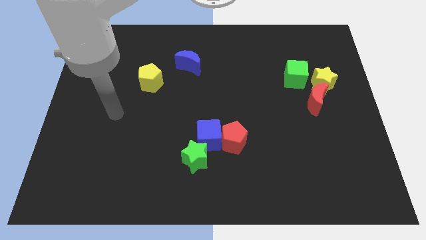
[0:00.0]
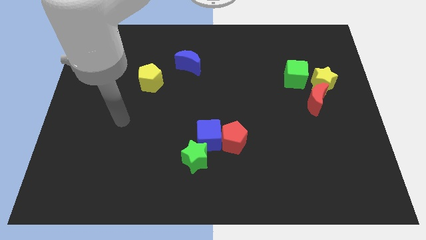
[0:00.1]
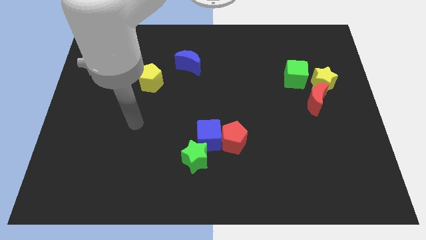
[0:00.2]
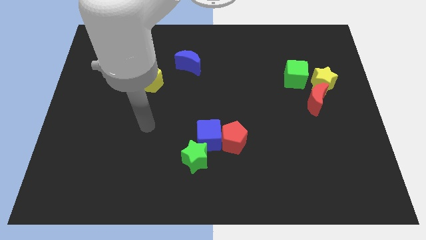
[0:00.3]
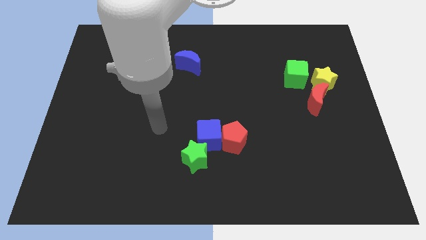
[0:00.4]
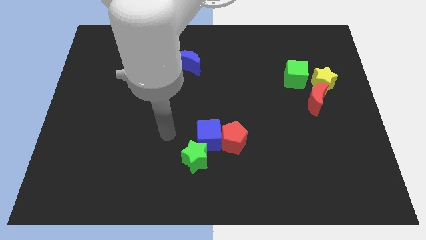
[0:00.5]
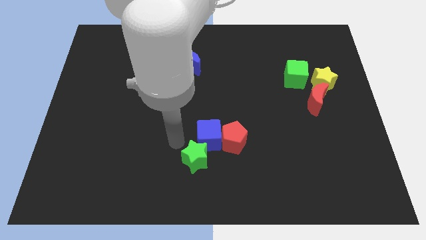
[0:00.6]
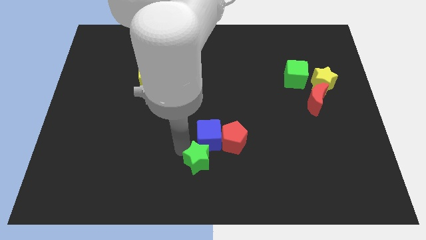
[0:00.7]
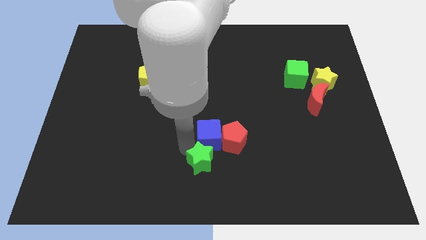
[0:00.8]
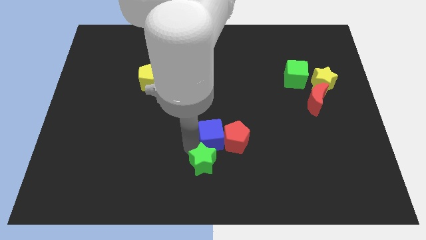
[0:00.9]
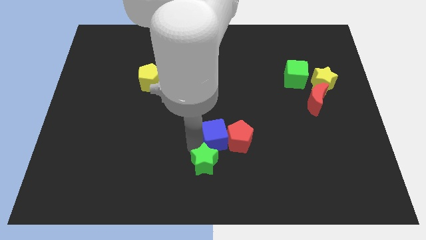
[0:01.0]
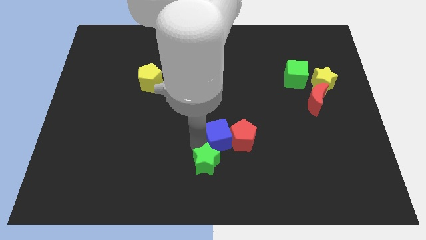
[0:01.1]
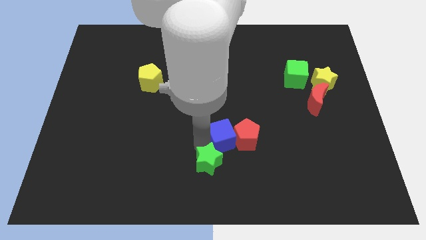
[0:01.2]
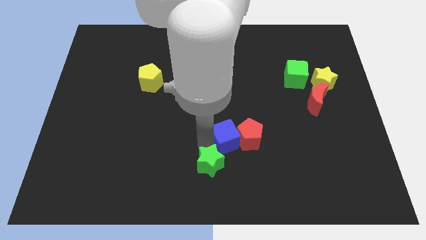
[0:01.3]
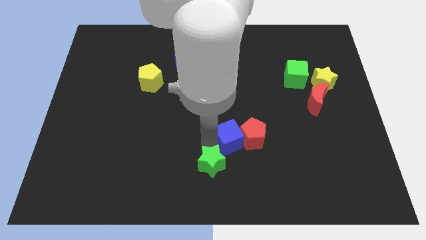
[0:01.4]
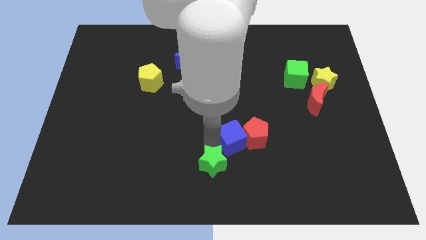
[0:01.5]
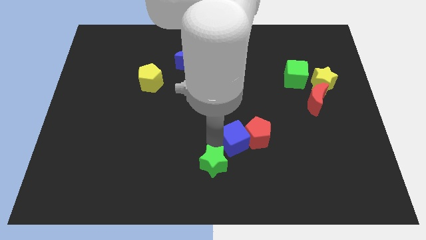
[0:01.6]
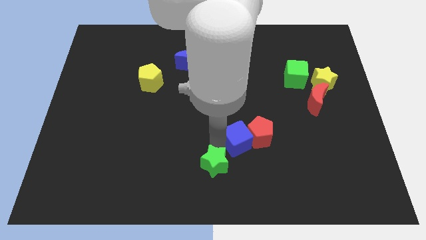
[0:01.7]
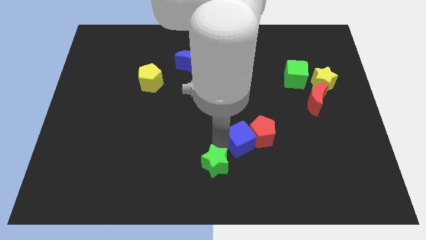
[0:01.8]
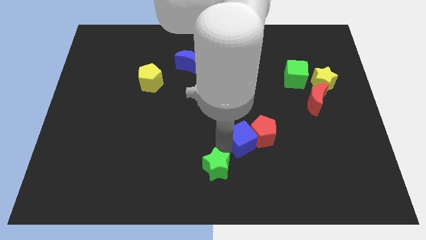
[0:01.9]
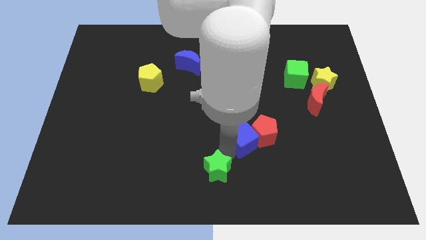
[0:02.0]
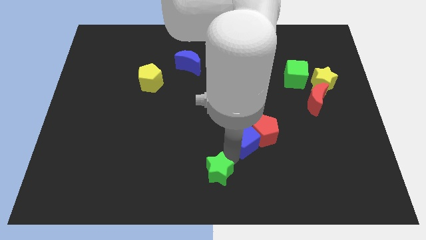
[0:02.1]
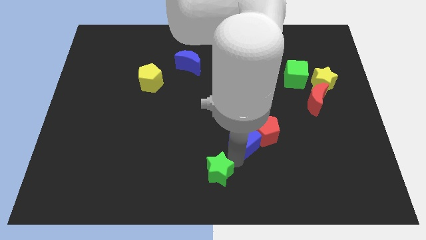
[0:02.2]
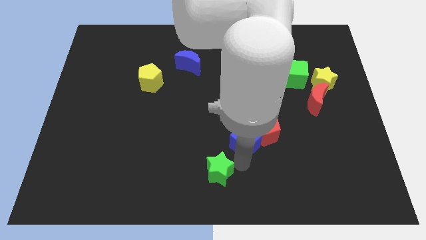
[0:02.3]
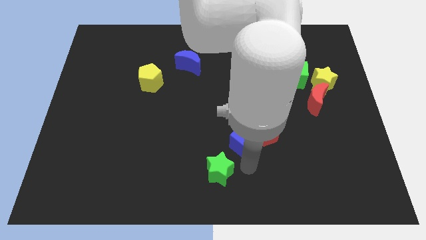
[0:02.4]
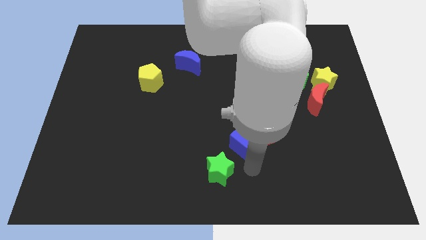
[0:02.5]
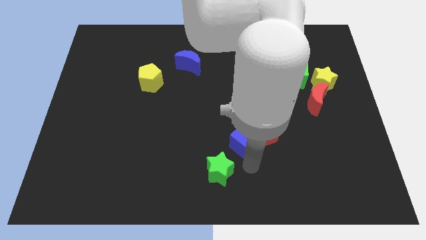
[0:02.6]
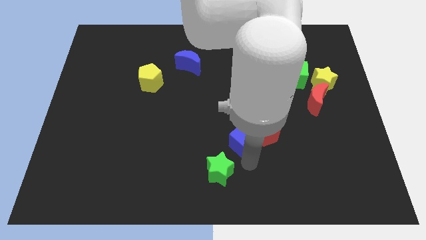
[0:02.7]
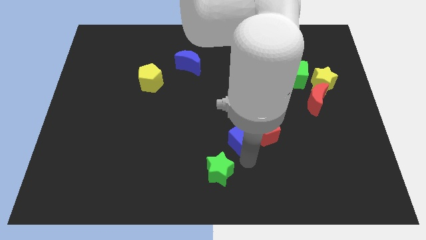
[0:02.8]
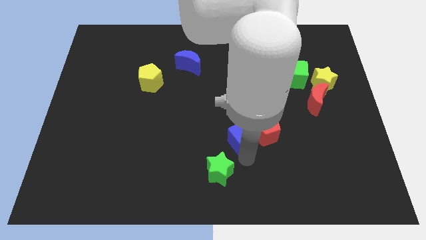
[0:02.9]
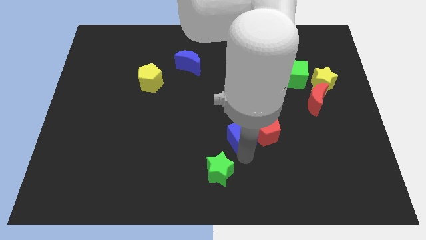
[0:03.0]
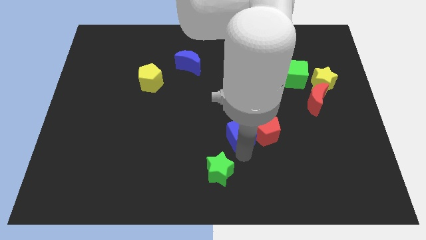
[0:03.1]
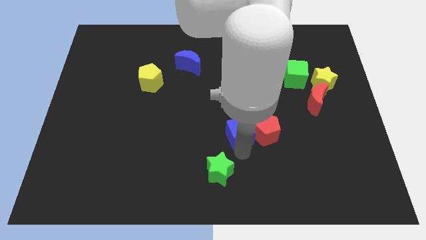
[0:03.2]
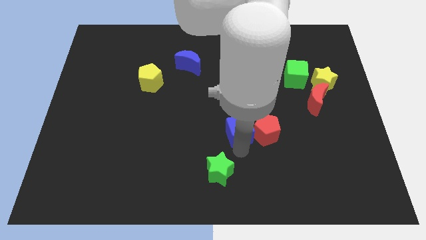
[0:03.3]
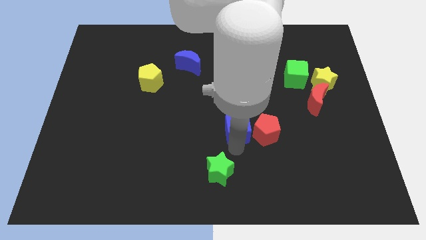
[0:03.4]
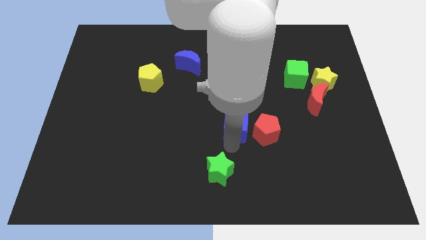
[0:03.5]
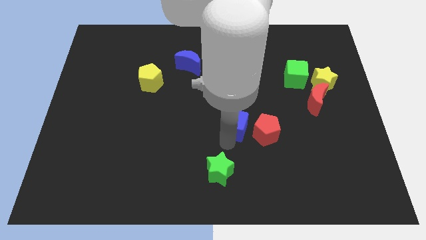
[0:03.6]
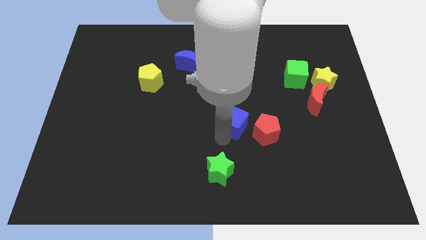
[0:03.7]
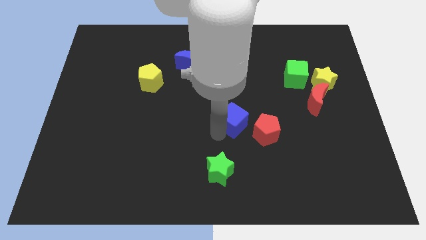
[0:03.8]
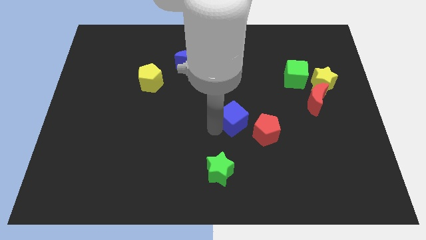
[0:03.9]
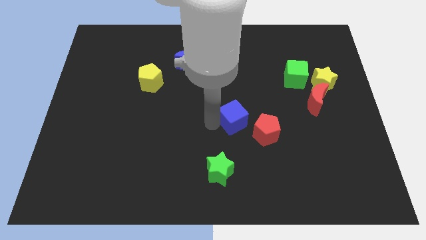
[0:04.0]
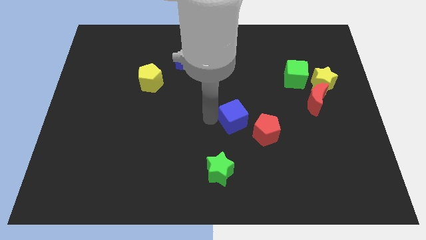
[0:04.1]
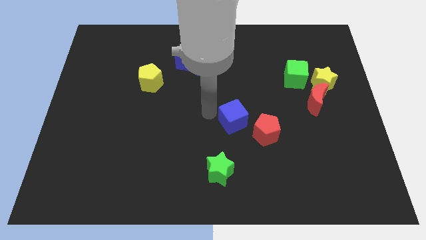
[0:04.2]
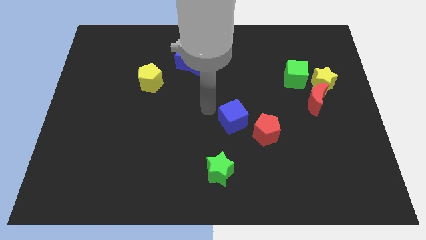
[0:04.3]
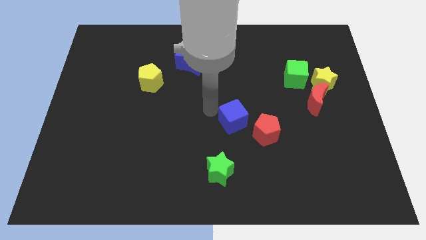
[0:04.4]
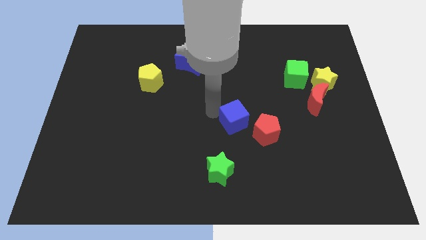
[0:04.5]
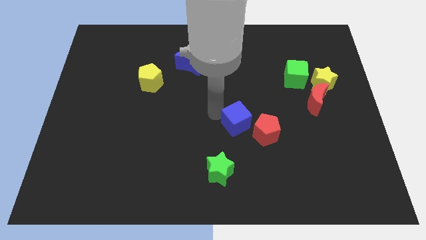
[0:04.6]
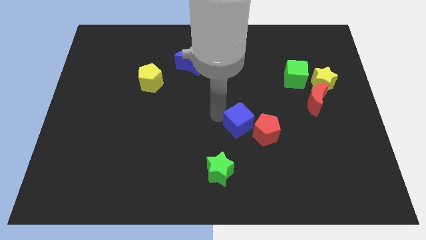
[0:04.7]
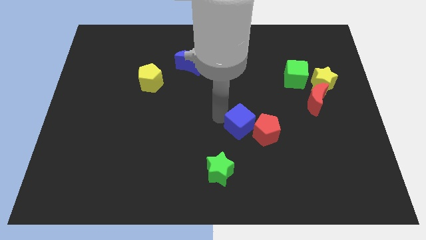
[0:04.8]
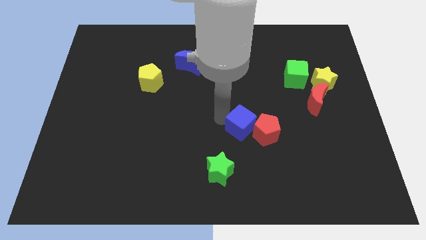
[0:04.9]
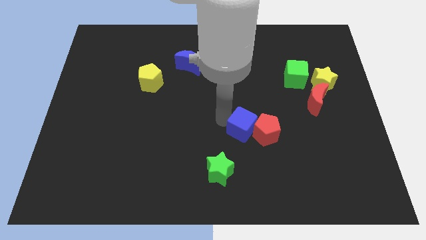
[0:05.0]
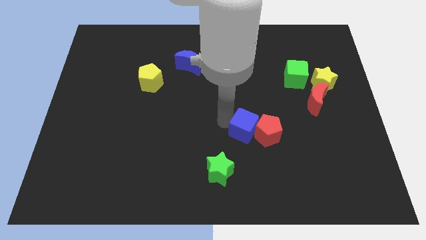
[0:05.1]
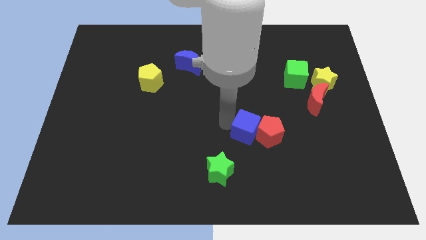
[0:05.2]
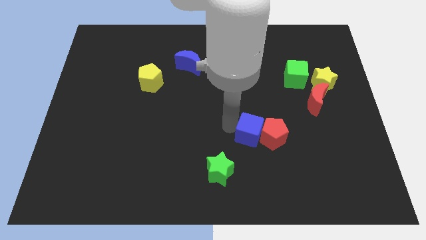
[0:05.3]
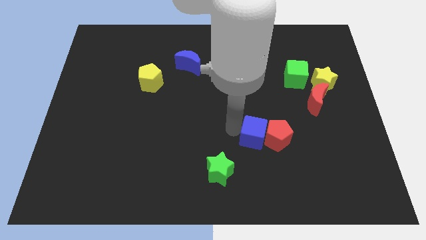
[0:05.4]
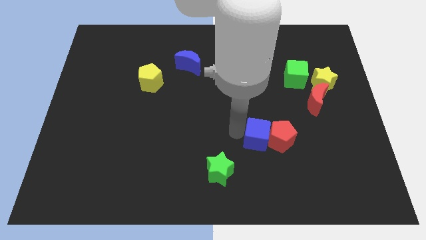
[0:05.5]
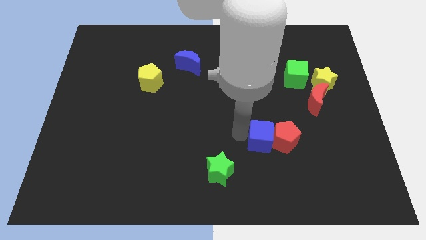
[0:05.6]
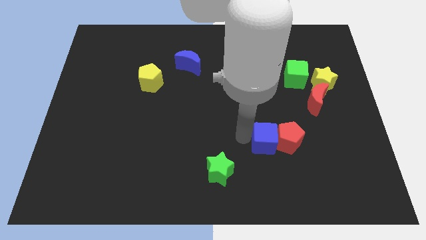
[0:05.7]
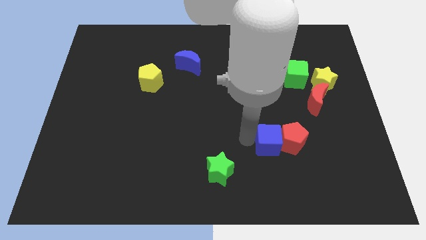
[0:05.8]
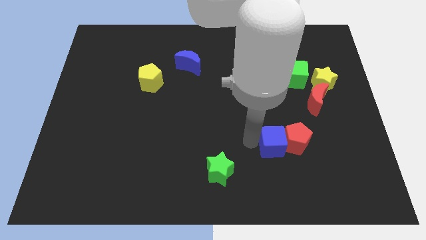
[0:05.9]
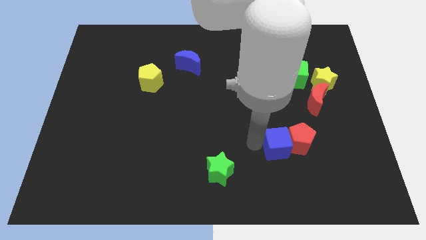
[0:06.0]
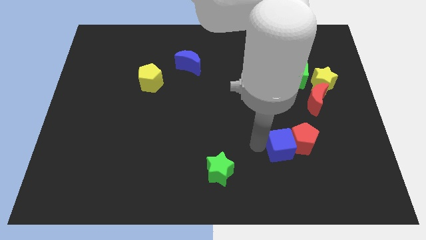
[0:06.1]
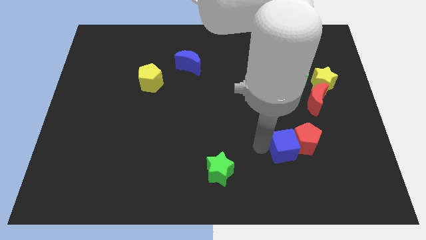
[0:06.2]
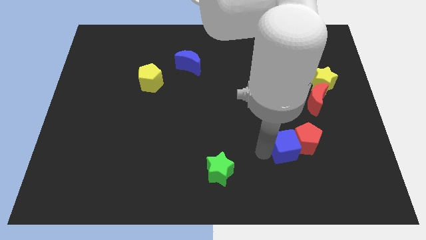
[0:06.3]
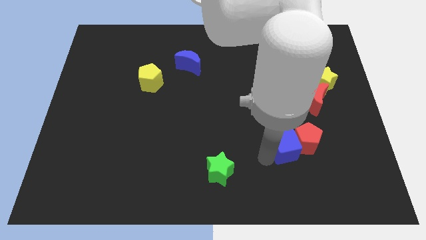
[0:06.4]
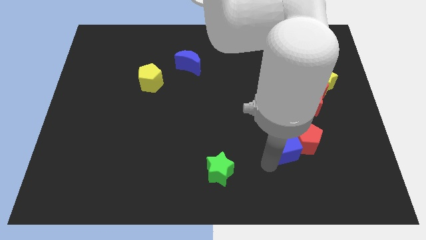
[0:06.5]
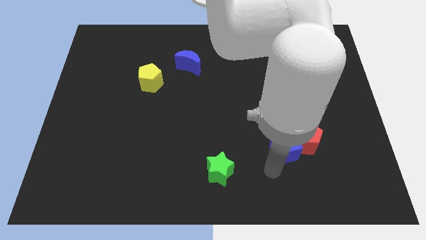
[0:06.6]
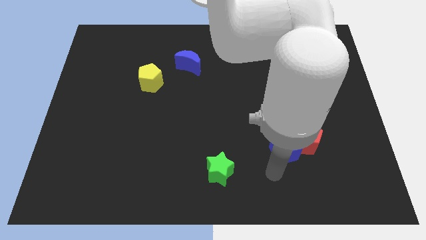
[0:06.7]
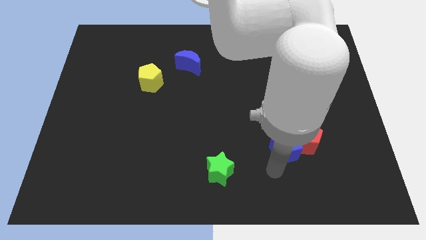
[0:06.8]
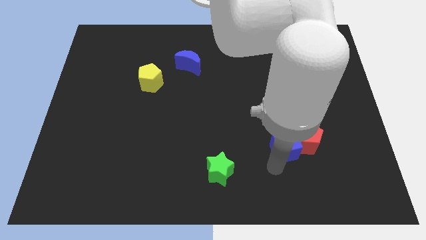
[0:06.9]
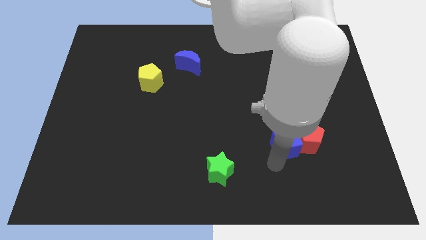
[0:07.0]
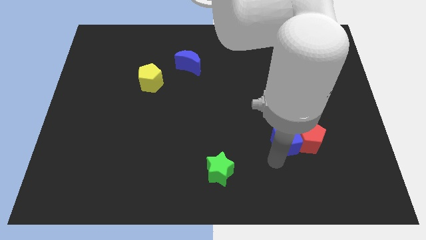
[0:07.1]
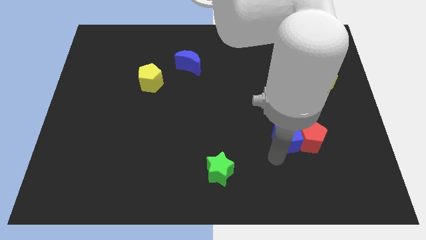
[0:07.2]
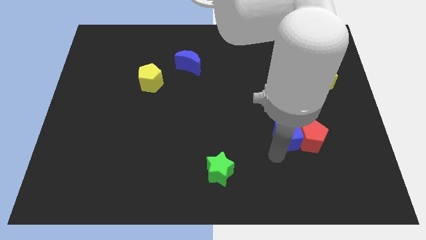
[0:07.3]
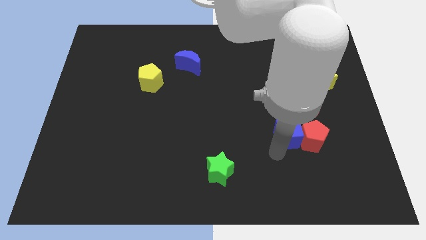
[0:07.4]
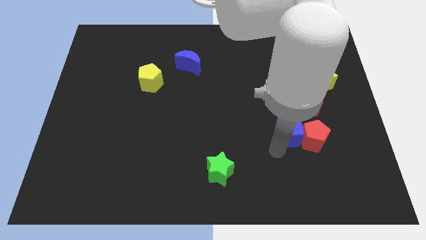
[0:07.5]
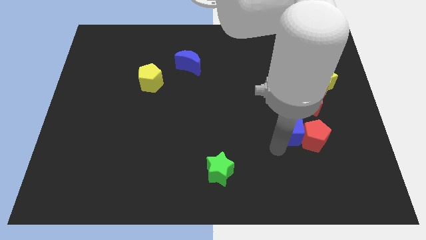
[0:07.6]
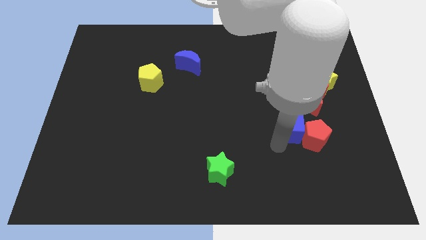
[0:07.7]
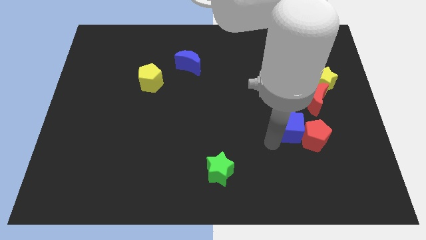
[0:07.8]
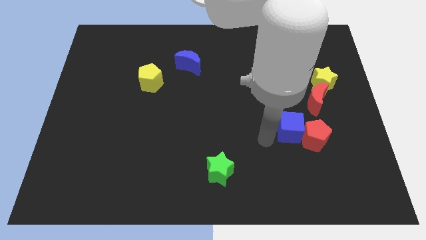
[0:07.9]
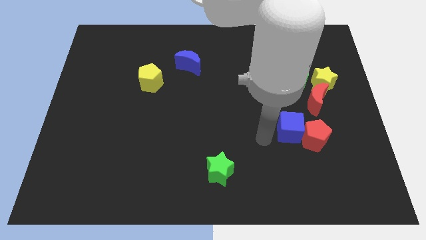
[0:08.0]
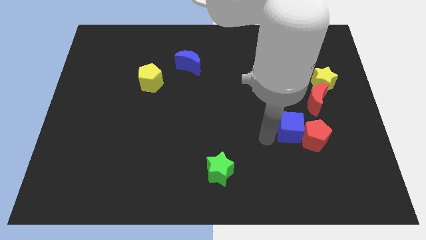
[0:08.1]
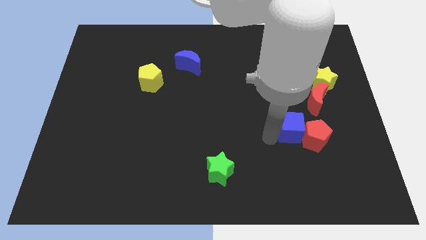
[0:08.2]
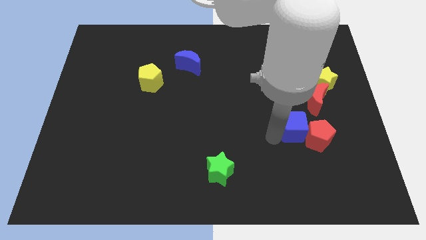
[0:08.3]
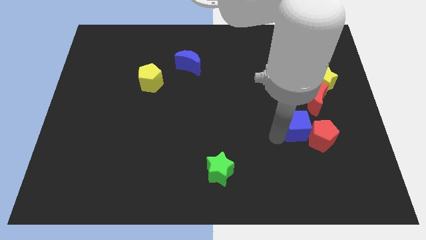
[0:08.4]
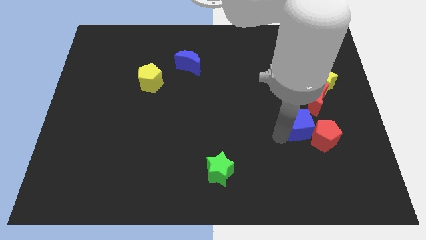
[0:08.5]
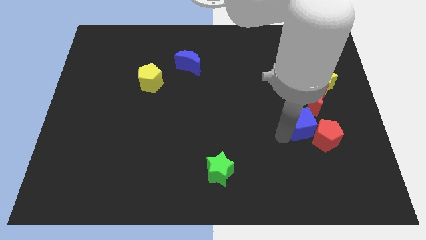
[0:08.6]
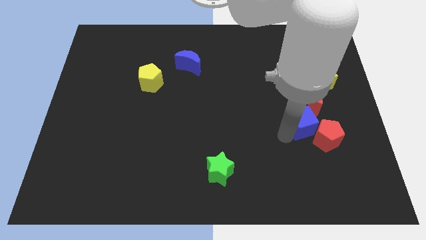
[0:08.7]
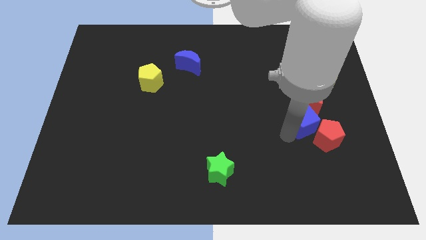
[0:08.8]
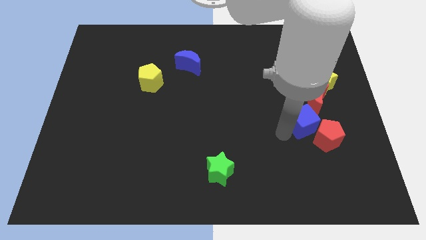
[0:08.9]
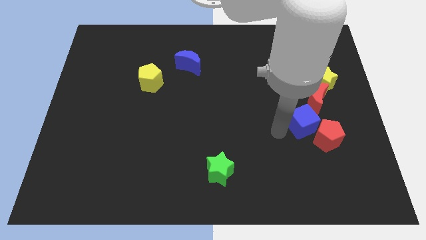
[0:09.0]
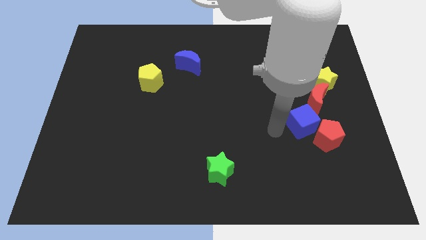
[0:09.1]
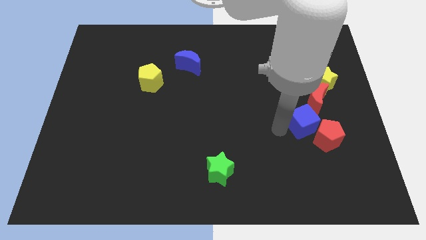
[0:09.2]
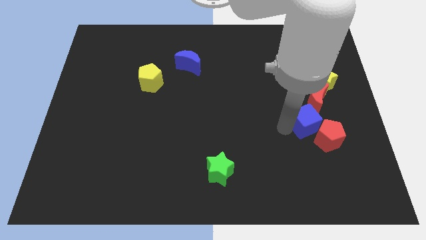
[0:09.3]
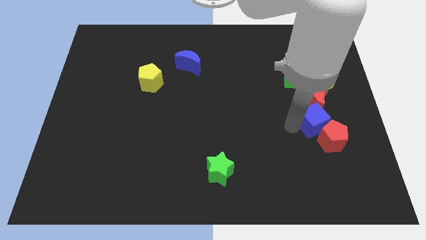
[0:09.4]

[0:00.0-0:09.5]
slide the blue cube to the bottom of the yellow star
